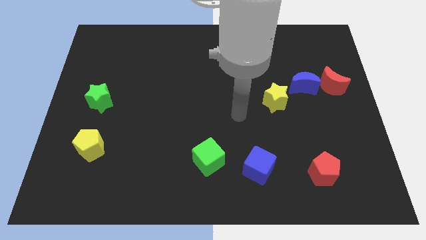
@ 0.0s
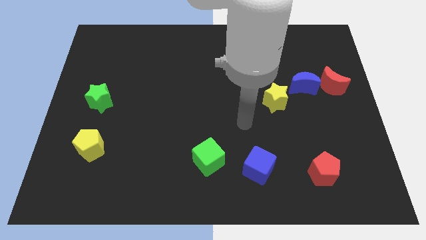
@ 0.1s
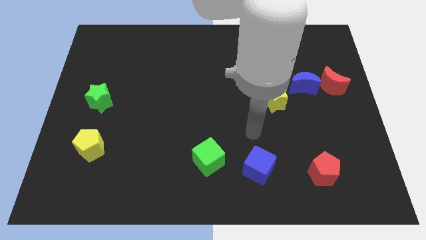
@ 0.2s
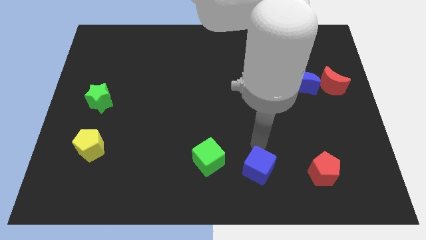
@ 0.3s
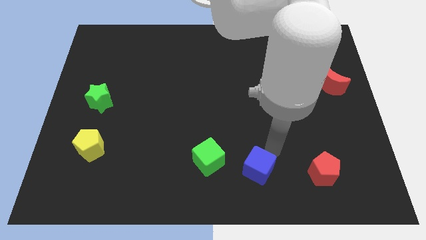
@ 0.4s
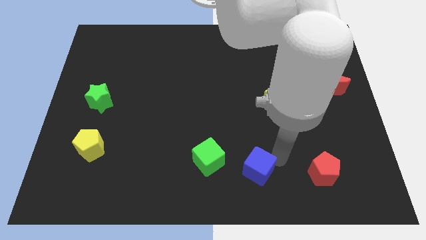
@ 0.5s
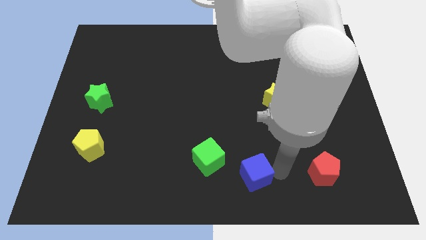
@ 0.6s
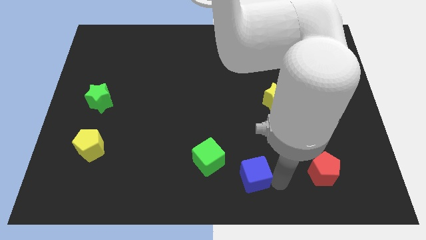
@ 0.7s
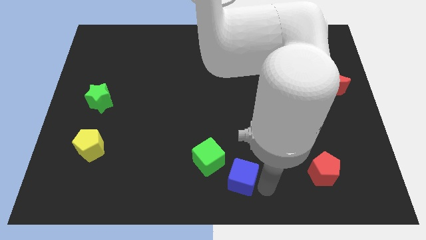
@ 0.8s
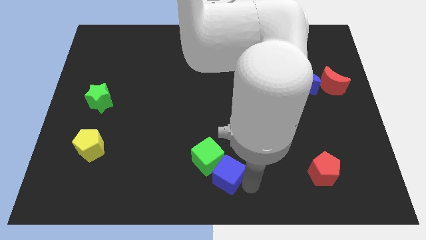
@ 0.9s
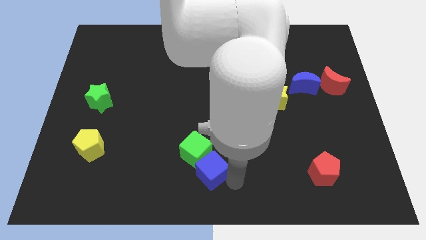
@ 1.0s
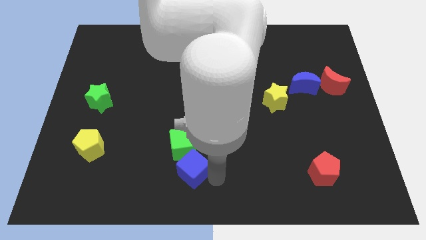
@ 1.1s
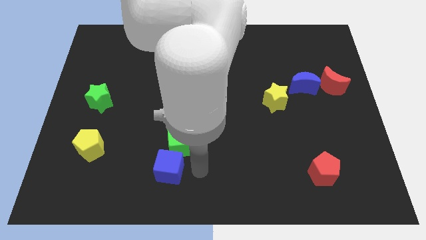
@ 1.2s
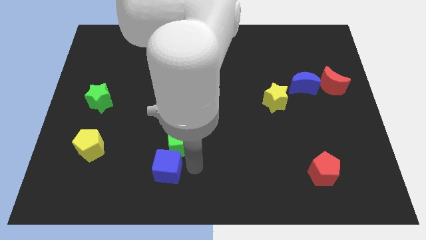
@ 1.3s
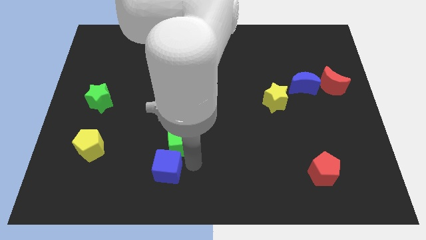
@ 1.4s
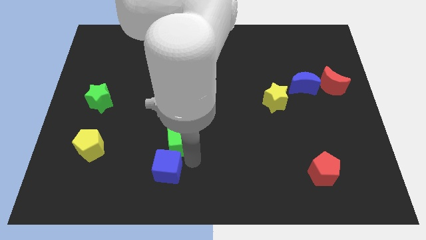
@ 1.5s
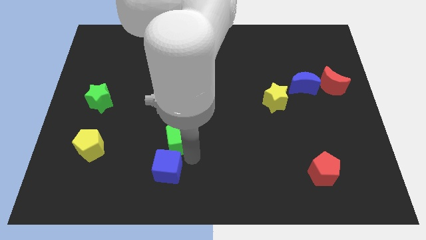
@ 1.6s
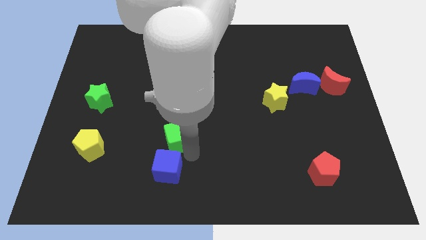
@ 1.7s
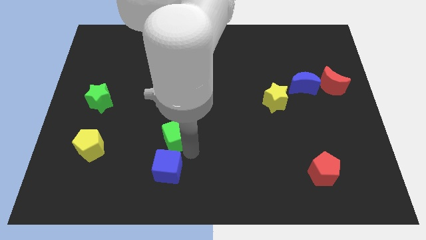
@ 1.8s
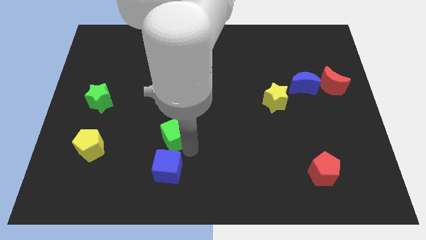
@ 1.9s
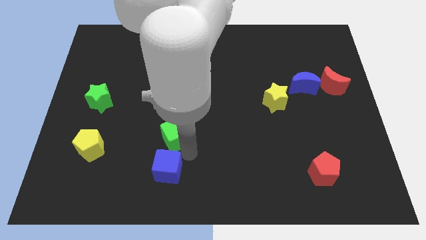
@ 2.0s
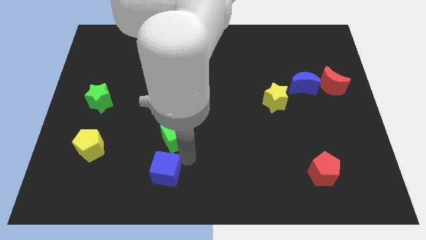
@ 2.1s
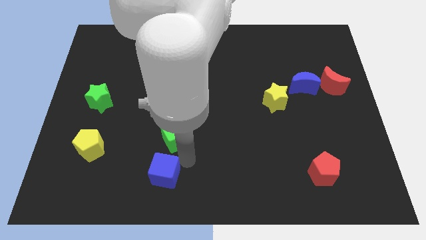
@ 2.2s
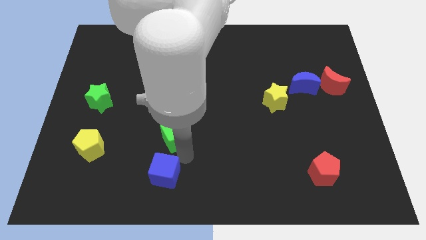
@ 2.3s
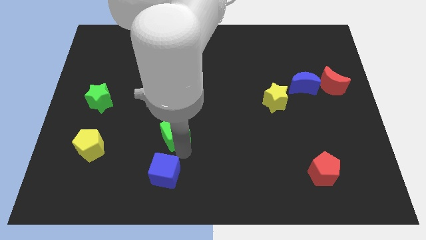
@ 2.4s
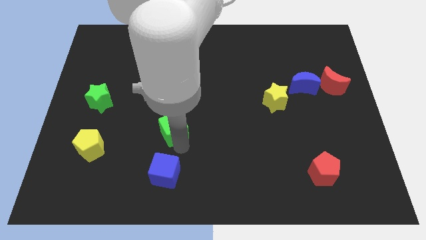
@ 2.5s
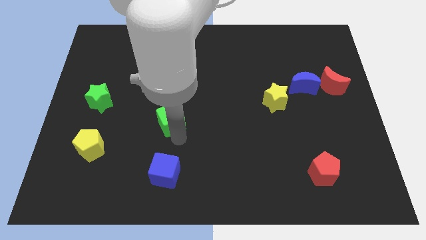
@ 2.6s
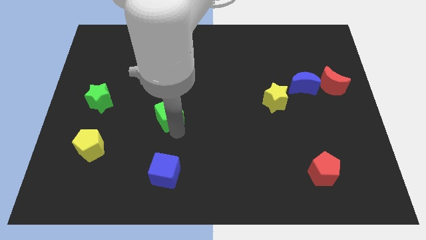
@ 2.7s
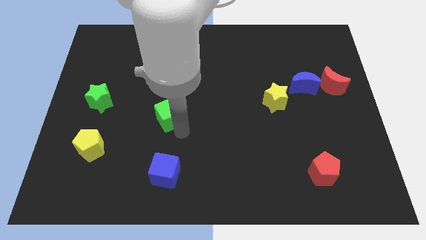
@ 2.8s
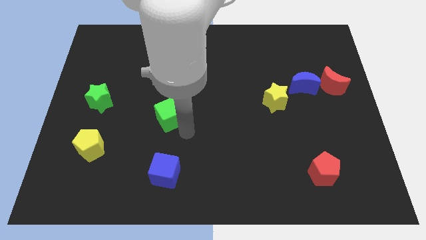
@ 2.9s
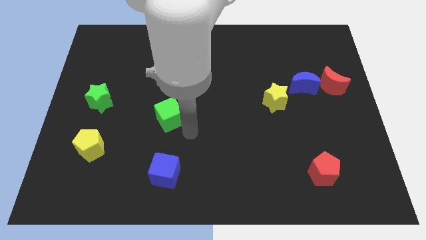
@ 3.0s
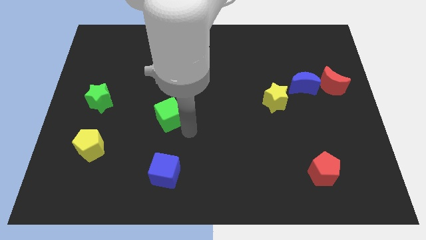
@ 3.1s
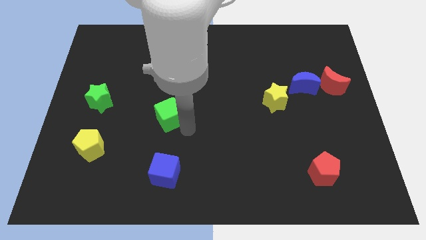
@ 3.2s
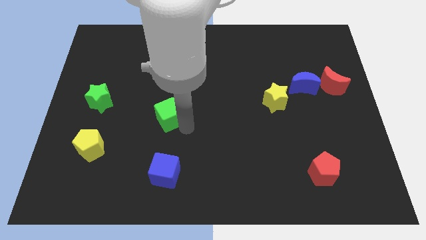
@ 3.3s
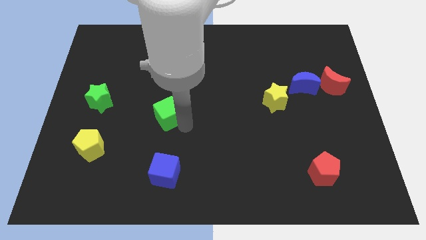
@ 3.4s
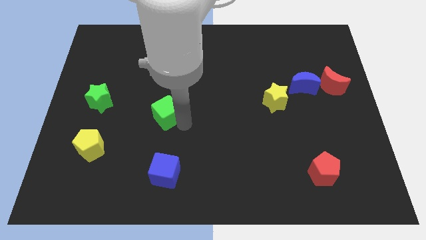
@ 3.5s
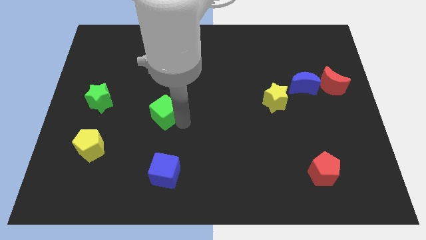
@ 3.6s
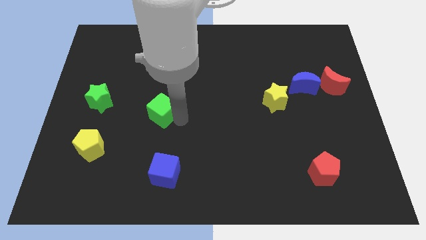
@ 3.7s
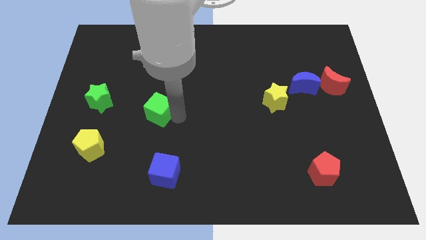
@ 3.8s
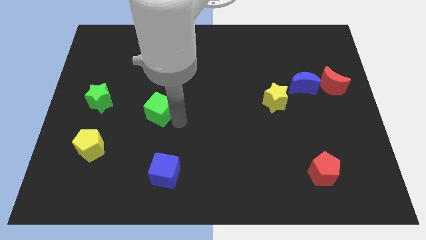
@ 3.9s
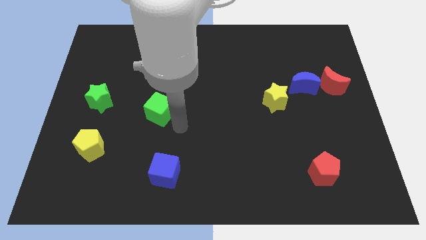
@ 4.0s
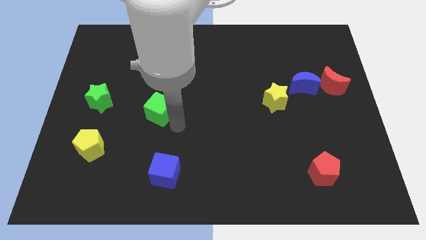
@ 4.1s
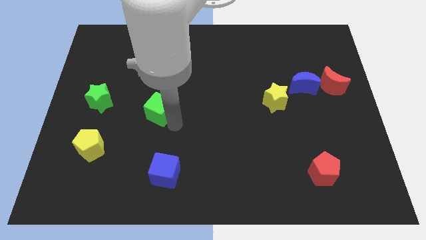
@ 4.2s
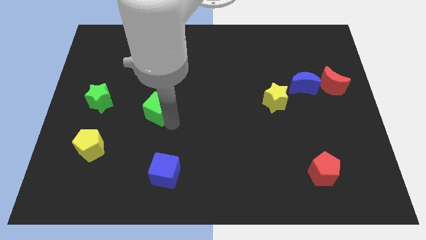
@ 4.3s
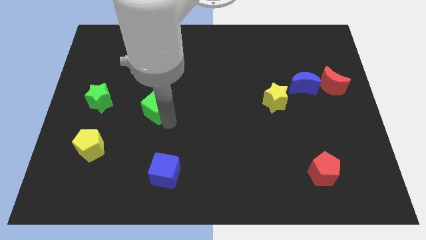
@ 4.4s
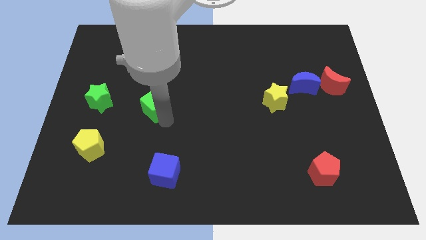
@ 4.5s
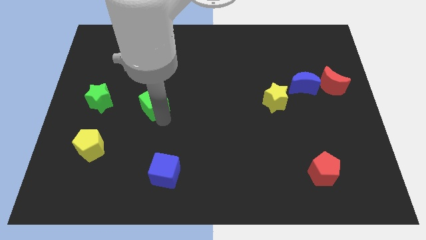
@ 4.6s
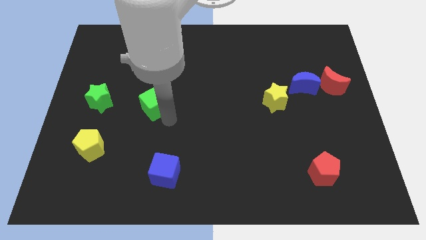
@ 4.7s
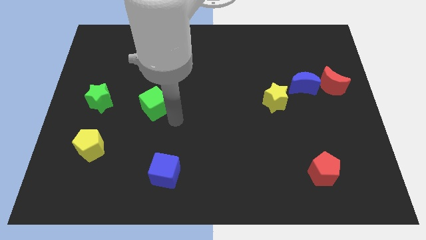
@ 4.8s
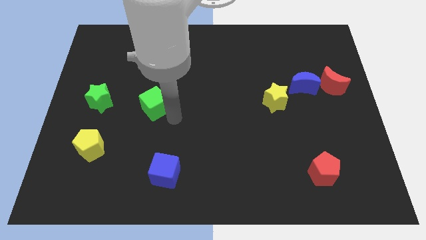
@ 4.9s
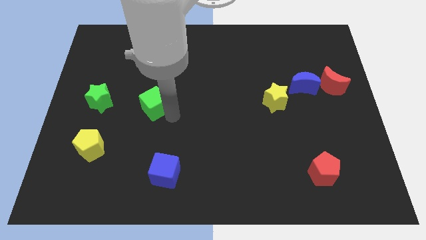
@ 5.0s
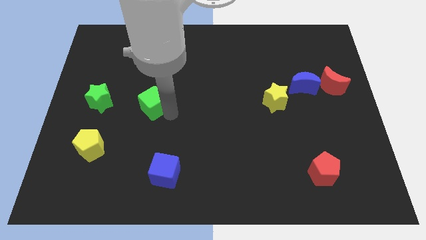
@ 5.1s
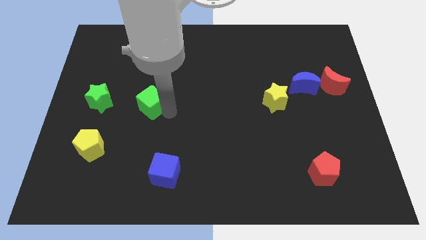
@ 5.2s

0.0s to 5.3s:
push the green cube upwards and then left

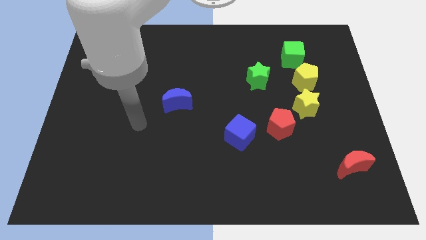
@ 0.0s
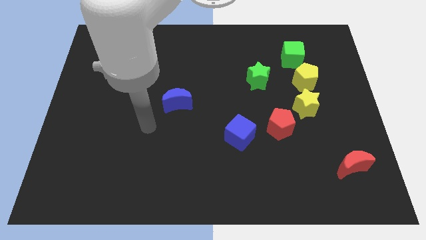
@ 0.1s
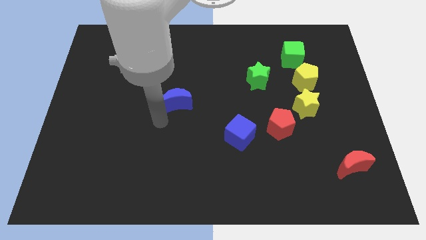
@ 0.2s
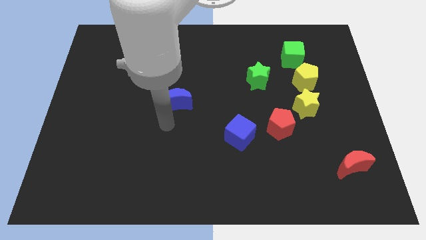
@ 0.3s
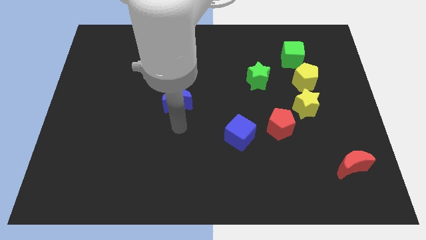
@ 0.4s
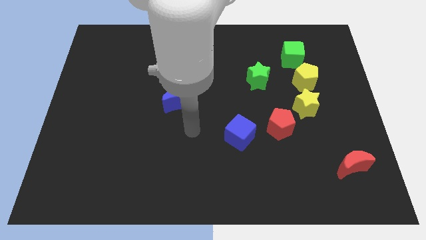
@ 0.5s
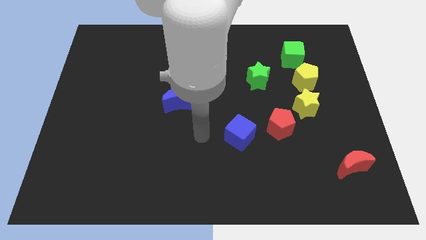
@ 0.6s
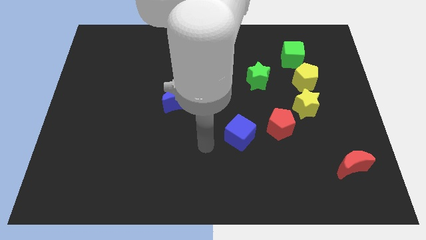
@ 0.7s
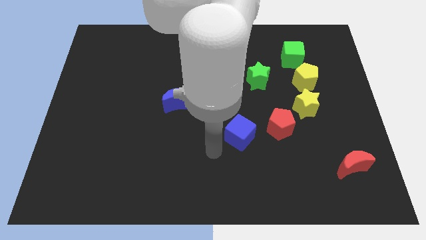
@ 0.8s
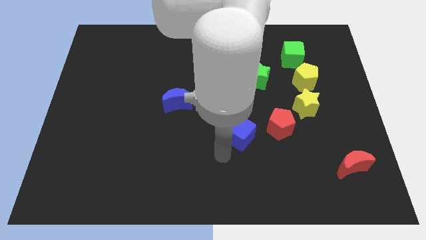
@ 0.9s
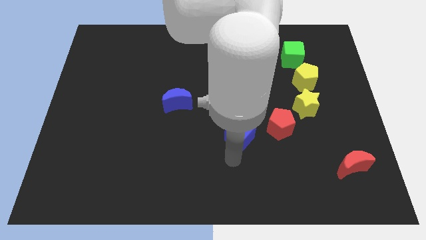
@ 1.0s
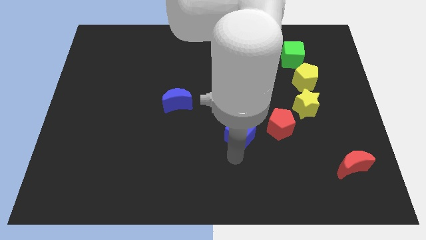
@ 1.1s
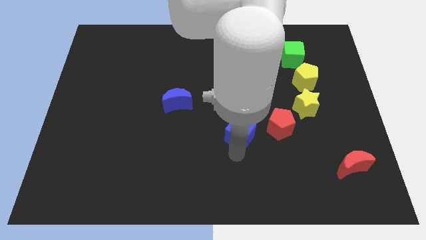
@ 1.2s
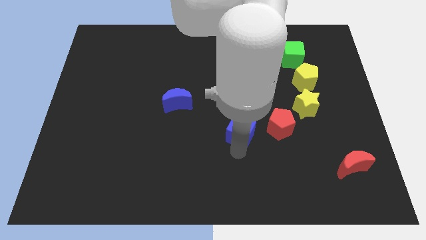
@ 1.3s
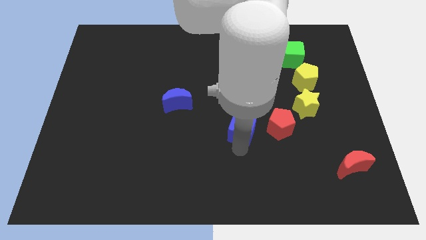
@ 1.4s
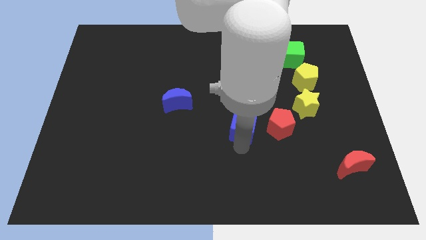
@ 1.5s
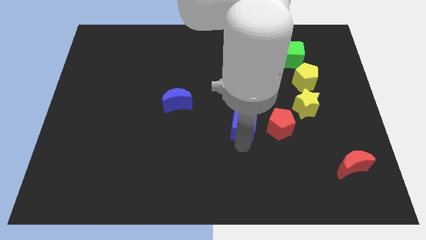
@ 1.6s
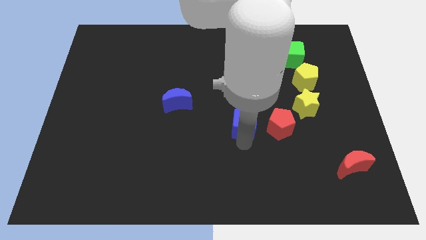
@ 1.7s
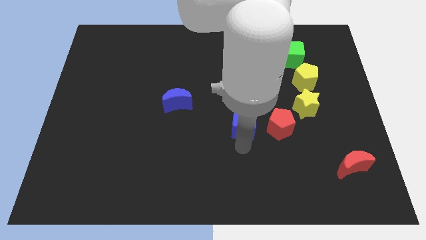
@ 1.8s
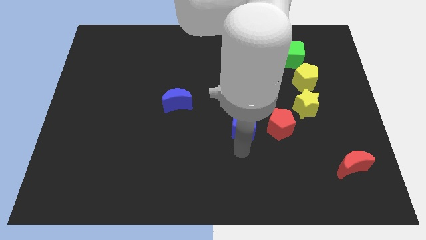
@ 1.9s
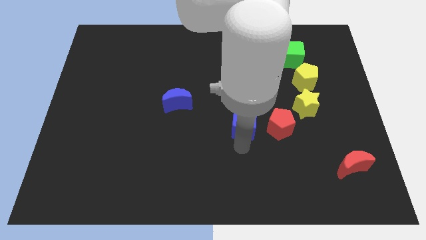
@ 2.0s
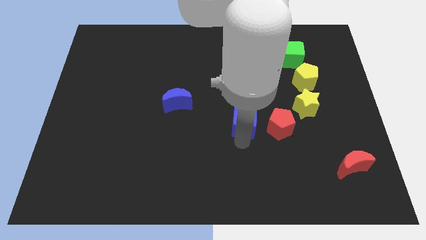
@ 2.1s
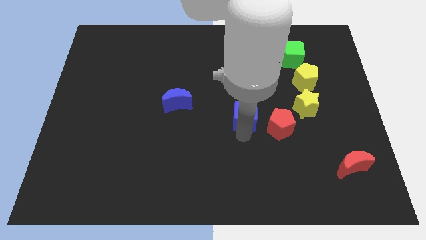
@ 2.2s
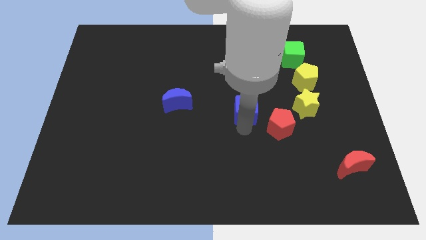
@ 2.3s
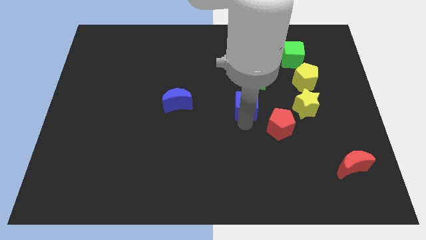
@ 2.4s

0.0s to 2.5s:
move the blue cube a little upwards

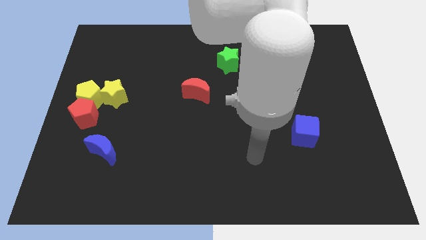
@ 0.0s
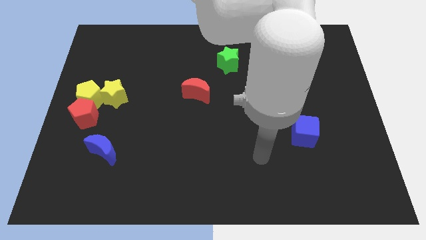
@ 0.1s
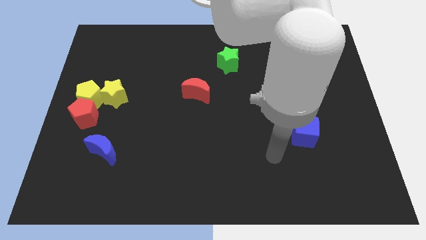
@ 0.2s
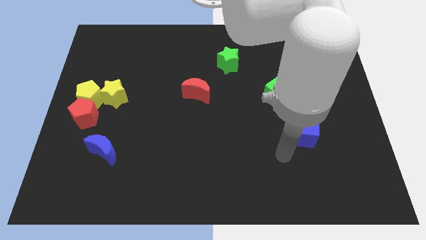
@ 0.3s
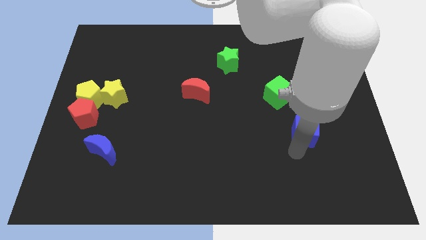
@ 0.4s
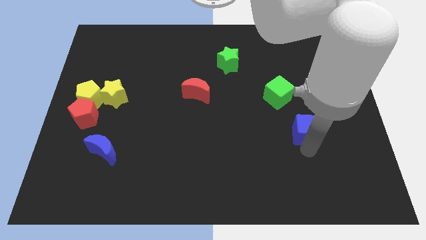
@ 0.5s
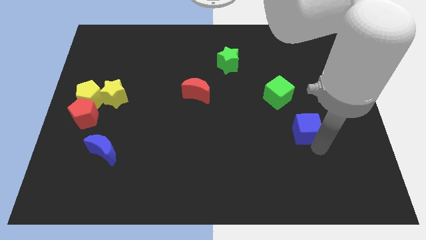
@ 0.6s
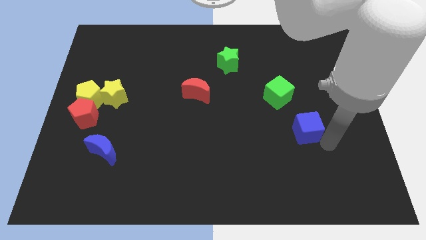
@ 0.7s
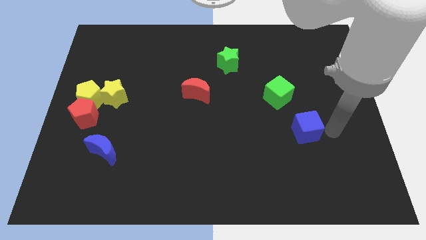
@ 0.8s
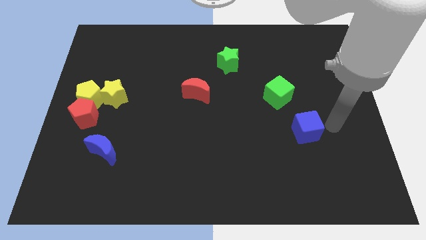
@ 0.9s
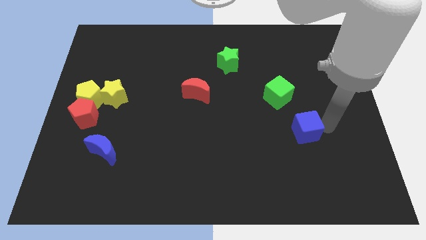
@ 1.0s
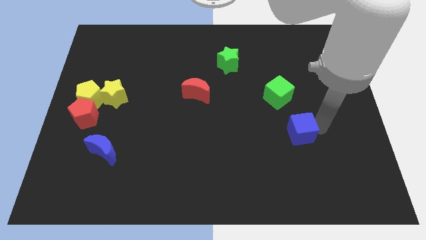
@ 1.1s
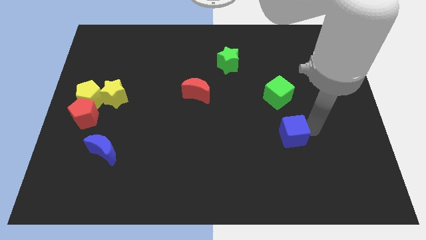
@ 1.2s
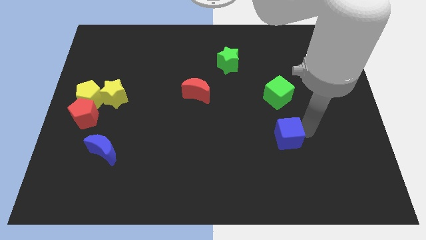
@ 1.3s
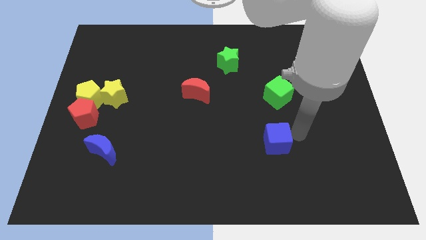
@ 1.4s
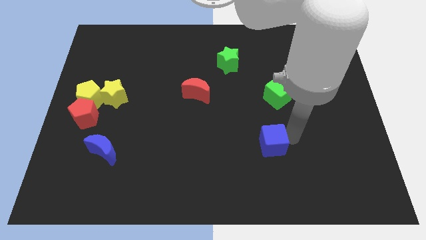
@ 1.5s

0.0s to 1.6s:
push the blue cube to the left slightly
